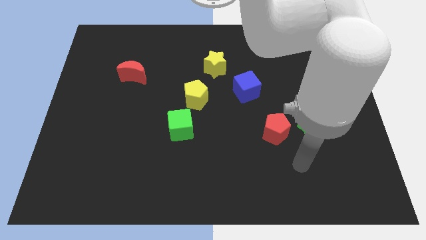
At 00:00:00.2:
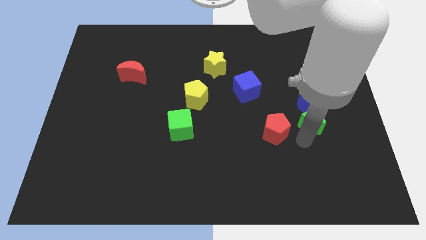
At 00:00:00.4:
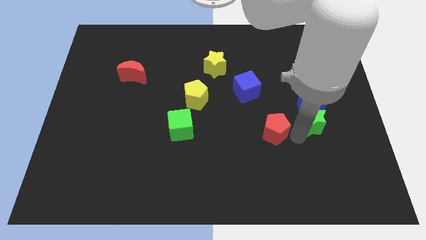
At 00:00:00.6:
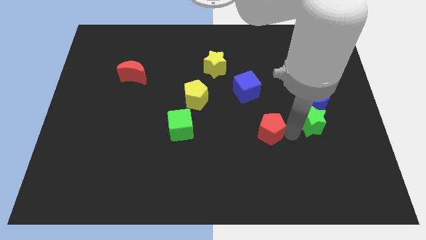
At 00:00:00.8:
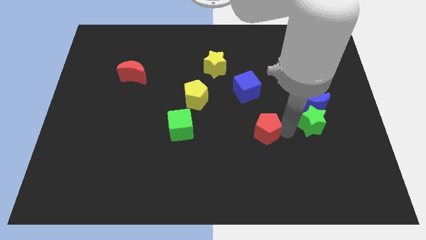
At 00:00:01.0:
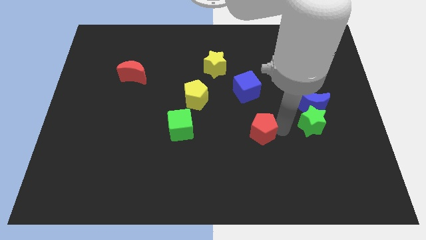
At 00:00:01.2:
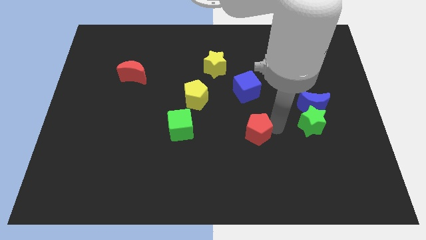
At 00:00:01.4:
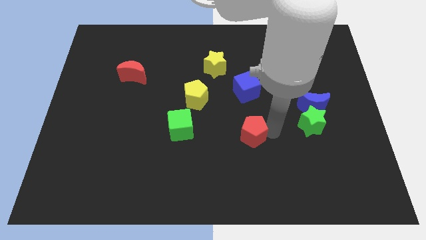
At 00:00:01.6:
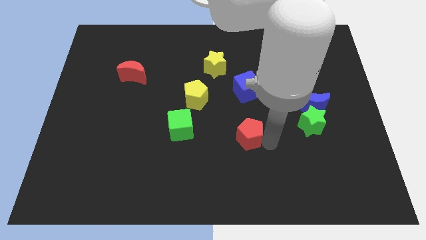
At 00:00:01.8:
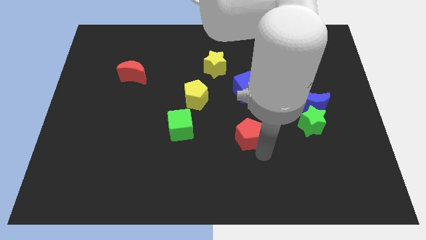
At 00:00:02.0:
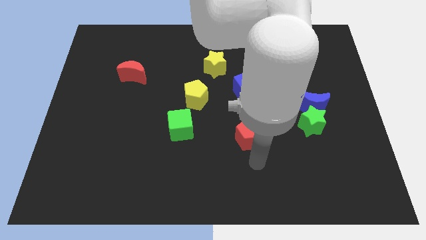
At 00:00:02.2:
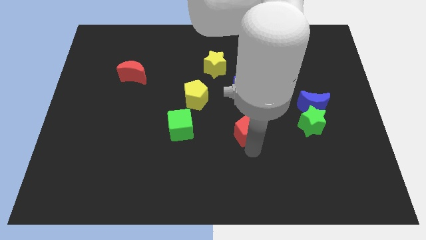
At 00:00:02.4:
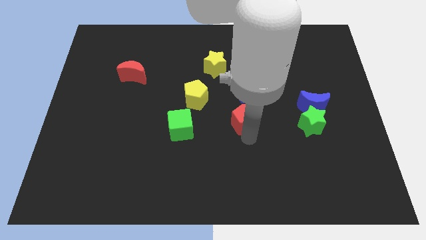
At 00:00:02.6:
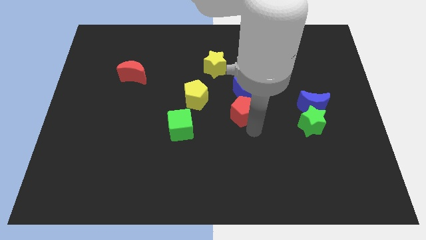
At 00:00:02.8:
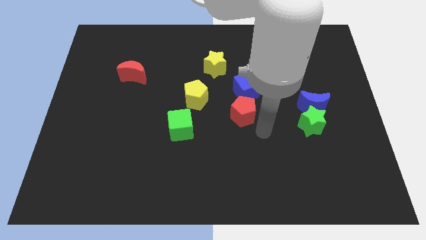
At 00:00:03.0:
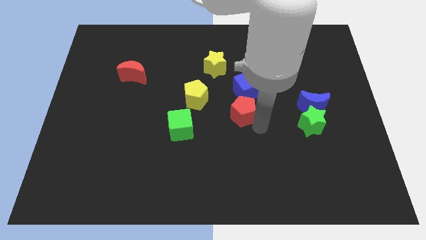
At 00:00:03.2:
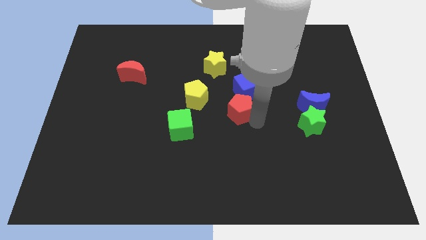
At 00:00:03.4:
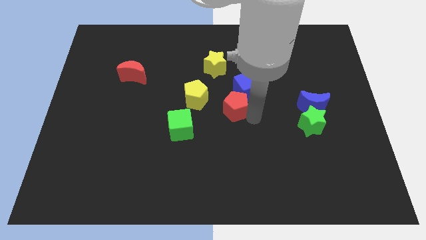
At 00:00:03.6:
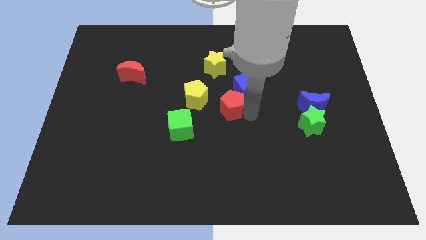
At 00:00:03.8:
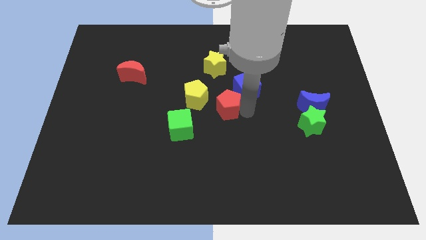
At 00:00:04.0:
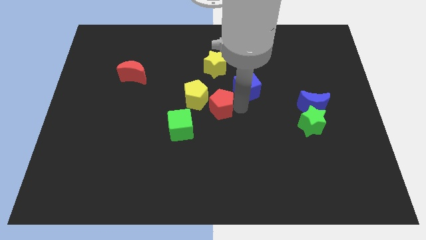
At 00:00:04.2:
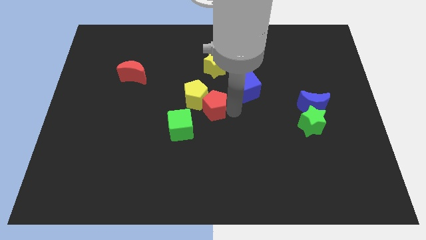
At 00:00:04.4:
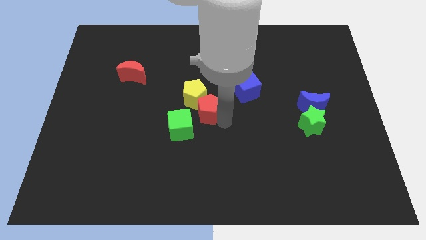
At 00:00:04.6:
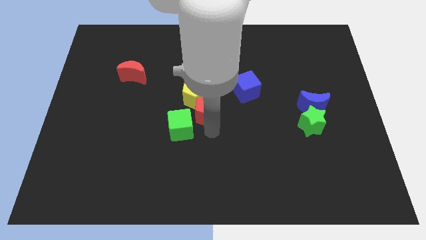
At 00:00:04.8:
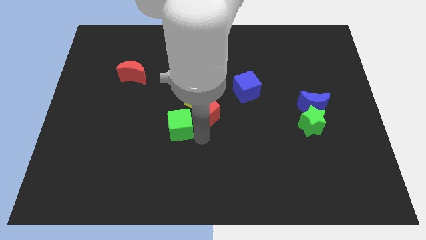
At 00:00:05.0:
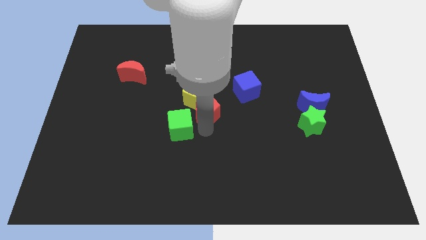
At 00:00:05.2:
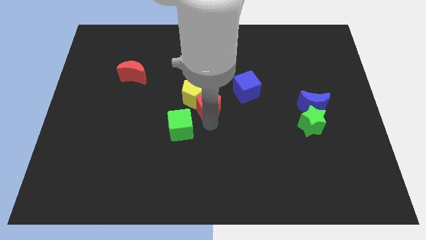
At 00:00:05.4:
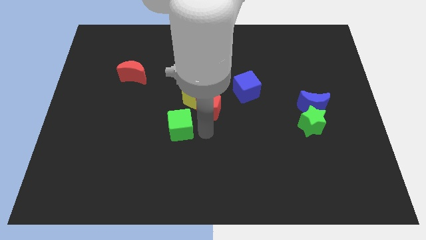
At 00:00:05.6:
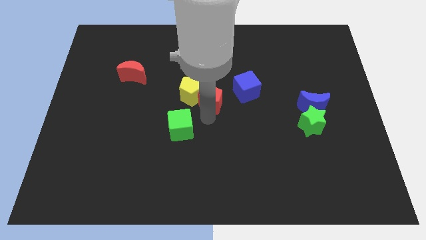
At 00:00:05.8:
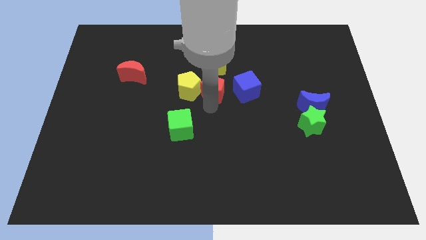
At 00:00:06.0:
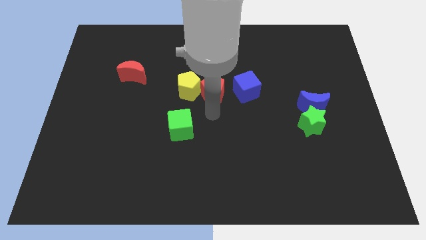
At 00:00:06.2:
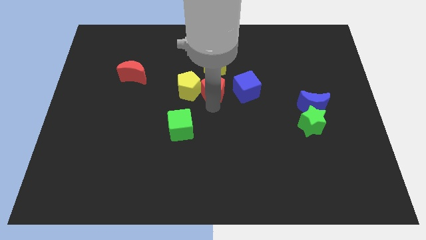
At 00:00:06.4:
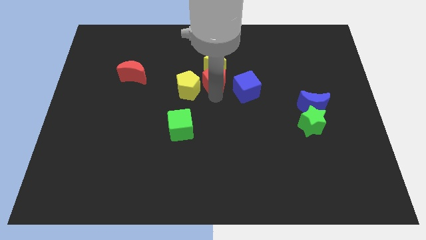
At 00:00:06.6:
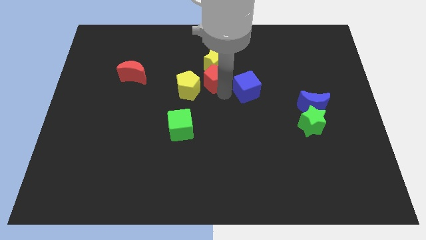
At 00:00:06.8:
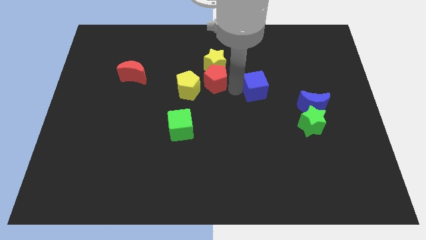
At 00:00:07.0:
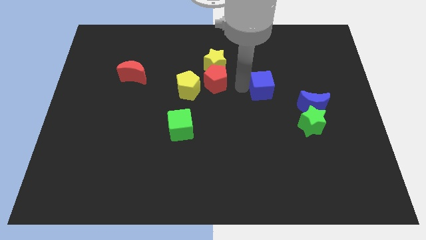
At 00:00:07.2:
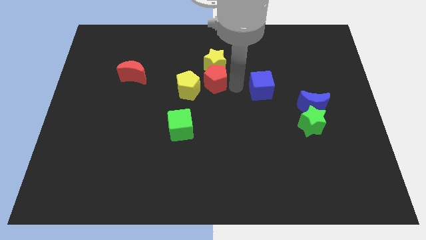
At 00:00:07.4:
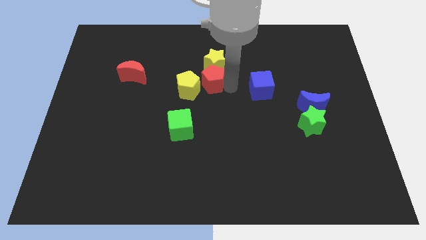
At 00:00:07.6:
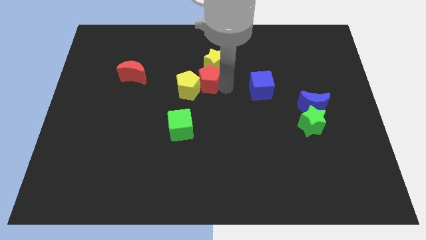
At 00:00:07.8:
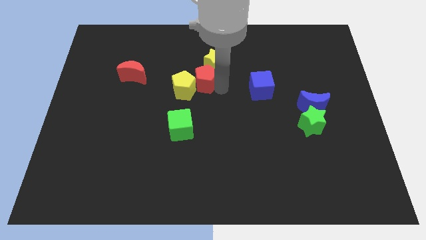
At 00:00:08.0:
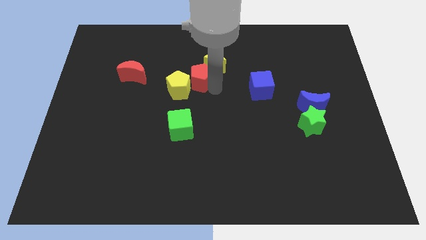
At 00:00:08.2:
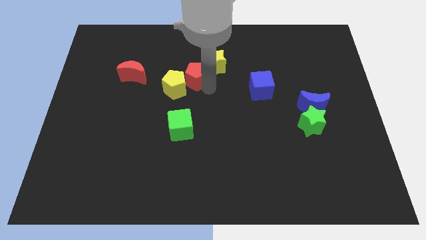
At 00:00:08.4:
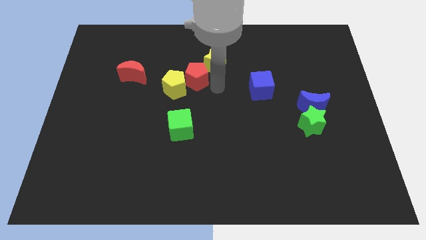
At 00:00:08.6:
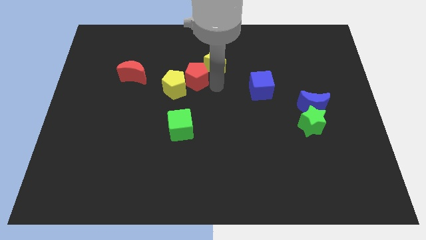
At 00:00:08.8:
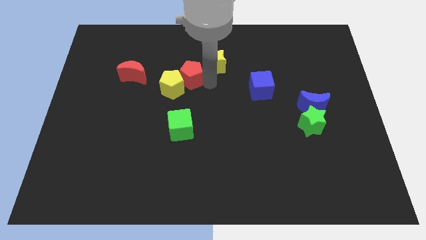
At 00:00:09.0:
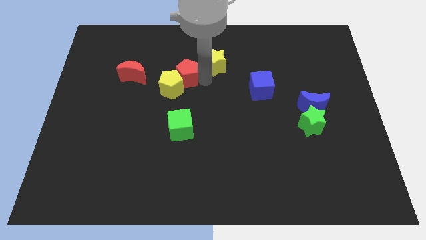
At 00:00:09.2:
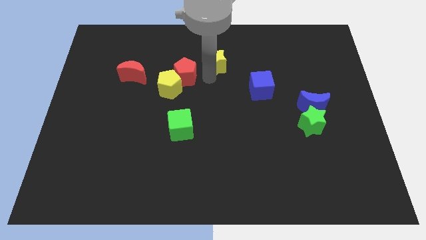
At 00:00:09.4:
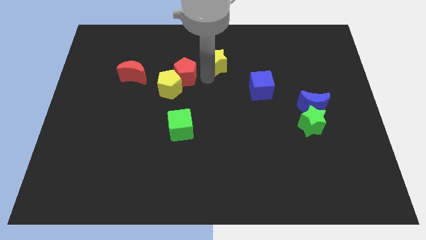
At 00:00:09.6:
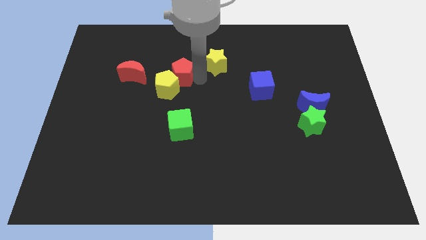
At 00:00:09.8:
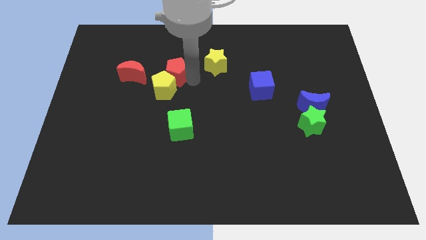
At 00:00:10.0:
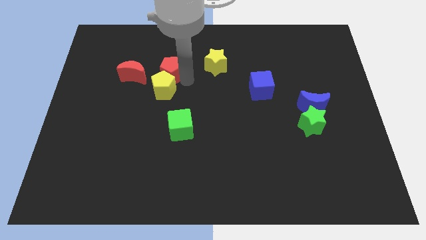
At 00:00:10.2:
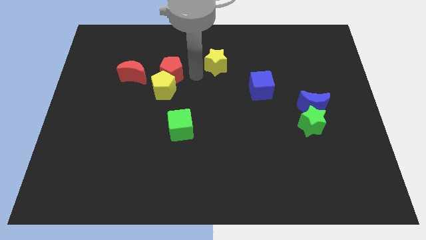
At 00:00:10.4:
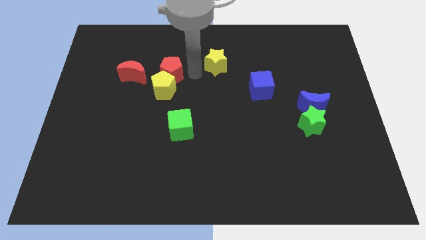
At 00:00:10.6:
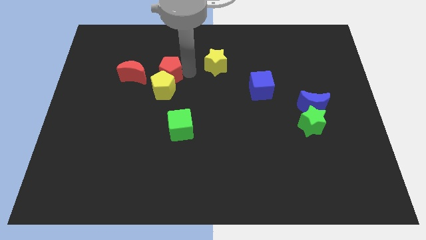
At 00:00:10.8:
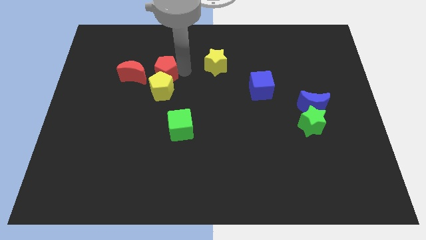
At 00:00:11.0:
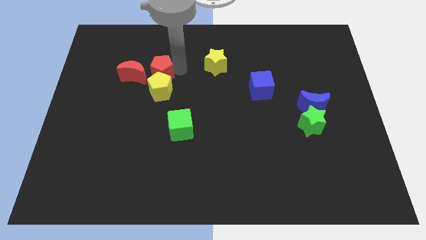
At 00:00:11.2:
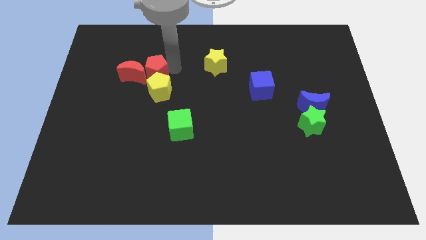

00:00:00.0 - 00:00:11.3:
put the red pentagon towards the red moon

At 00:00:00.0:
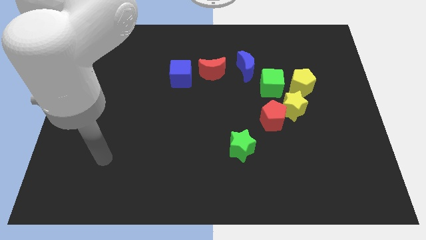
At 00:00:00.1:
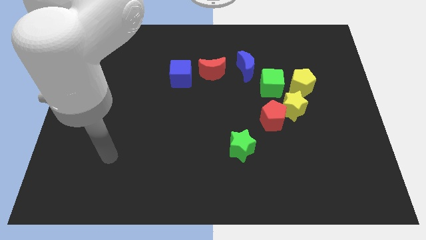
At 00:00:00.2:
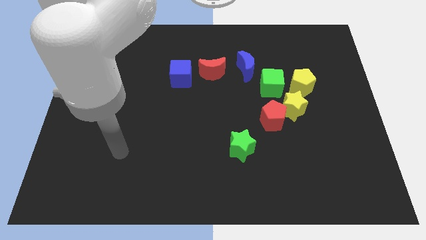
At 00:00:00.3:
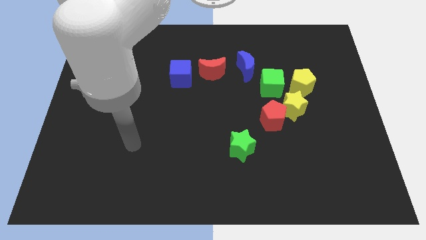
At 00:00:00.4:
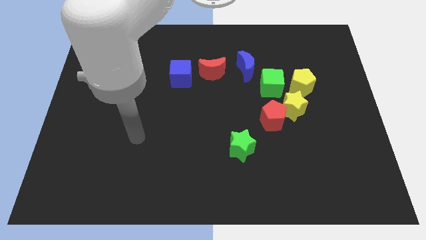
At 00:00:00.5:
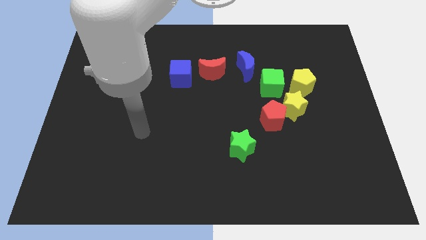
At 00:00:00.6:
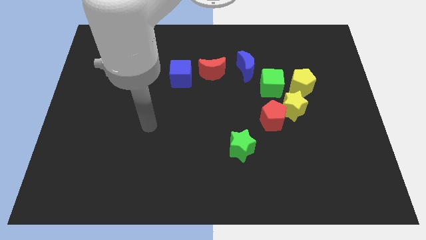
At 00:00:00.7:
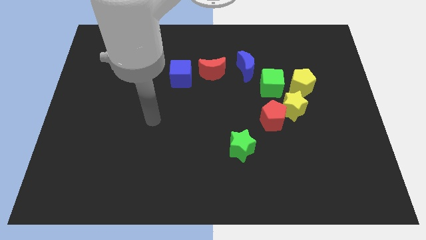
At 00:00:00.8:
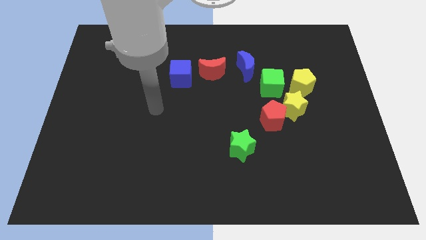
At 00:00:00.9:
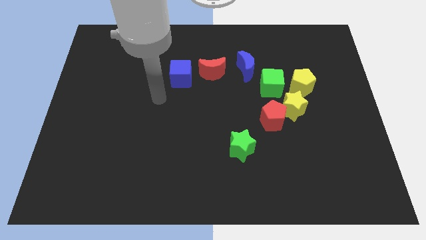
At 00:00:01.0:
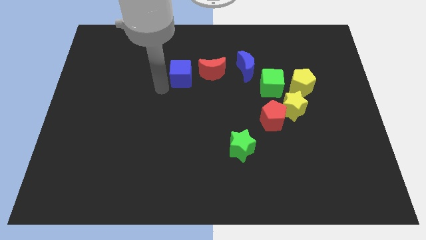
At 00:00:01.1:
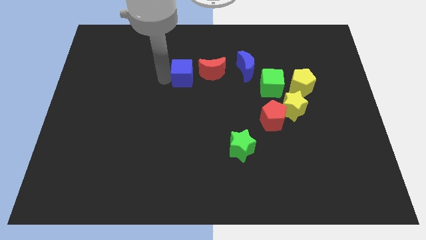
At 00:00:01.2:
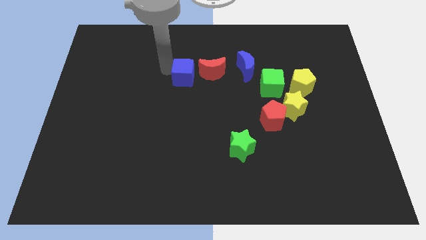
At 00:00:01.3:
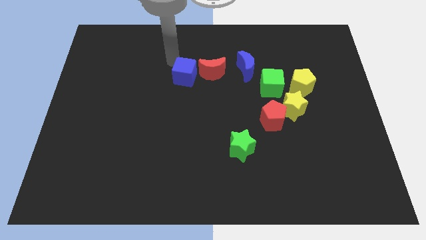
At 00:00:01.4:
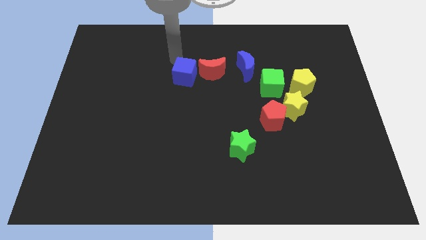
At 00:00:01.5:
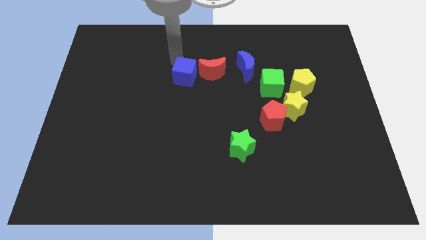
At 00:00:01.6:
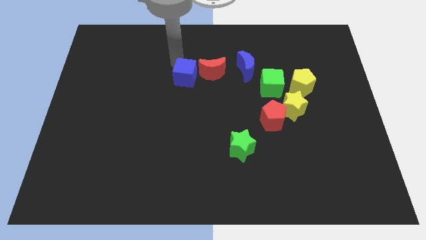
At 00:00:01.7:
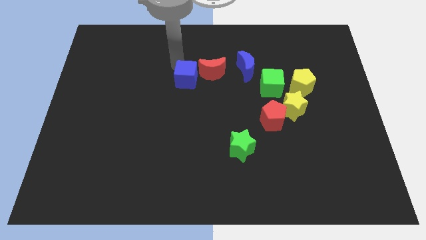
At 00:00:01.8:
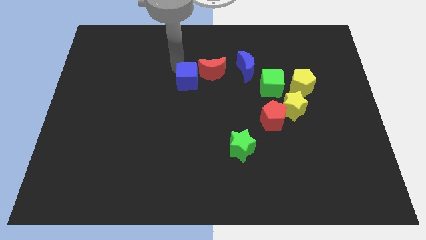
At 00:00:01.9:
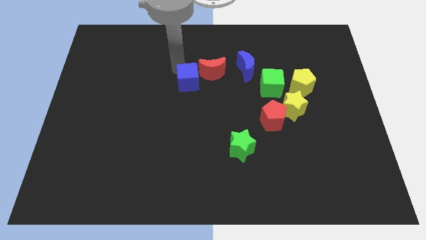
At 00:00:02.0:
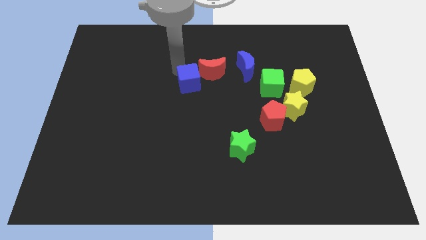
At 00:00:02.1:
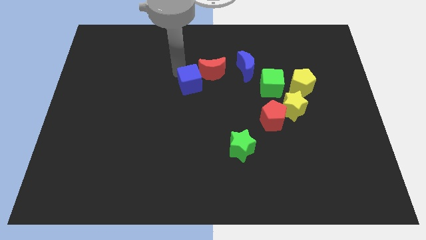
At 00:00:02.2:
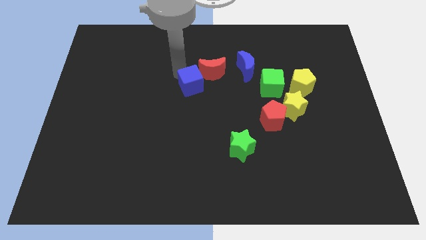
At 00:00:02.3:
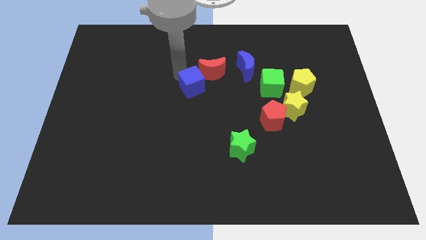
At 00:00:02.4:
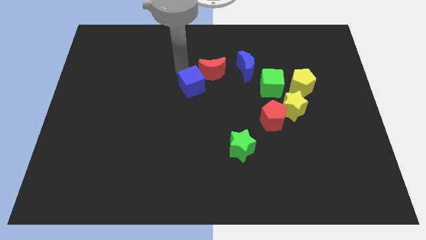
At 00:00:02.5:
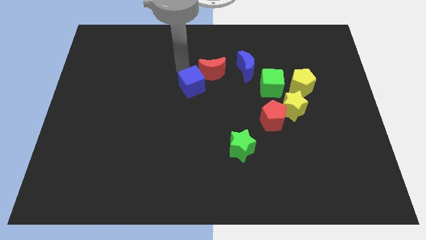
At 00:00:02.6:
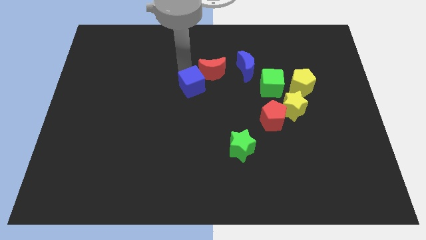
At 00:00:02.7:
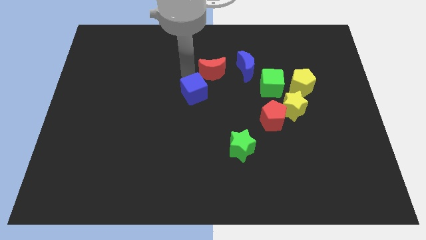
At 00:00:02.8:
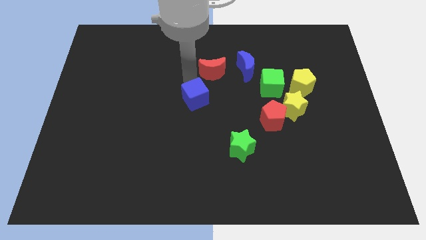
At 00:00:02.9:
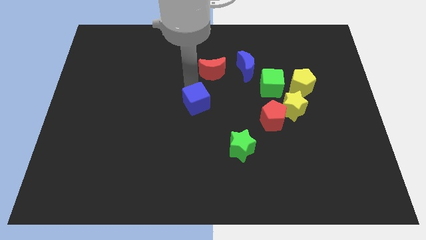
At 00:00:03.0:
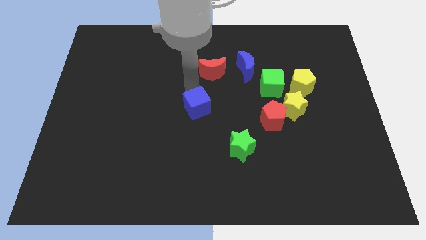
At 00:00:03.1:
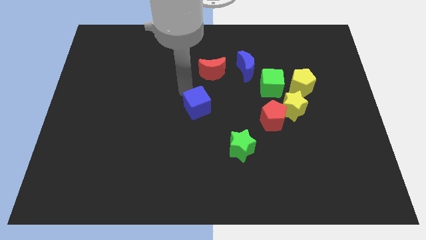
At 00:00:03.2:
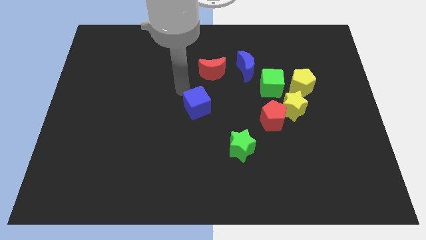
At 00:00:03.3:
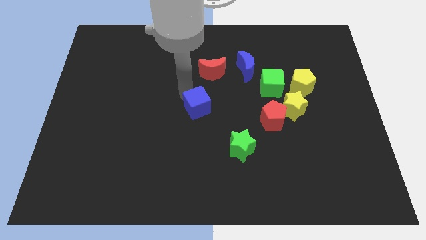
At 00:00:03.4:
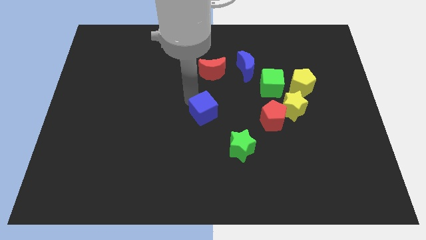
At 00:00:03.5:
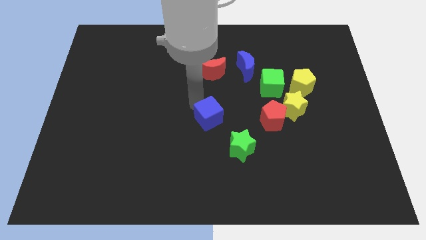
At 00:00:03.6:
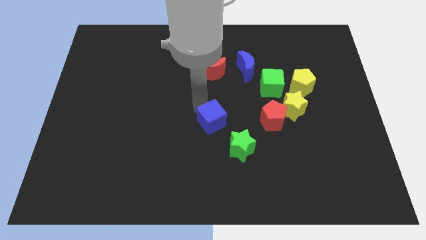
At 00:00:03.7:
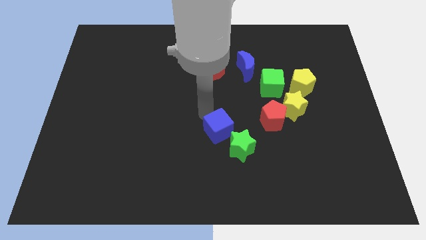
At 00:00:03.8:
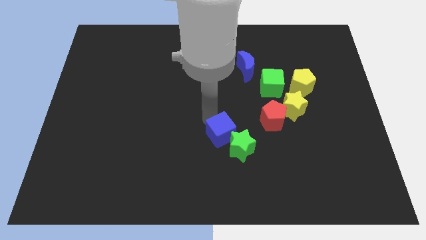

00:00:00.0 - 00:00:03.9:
push the blue cube next to the green star
